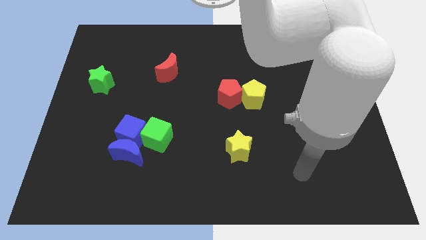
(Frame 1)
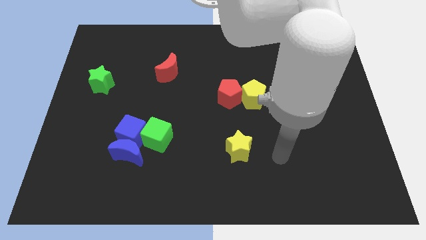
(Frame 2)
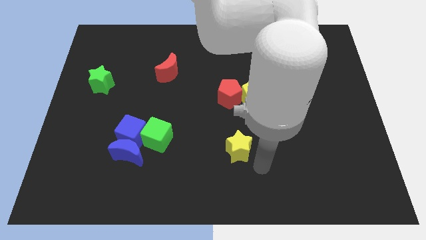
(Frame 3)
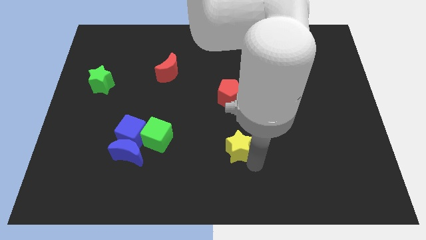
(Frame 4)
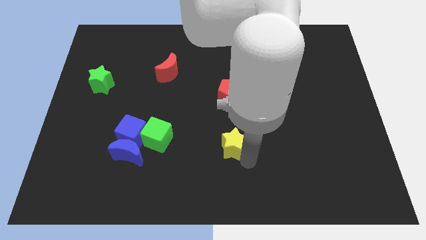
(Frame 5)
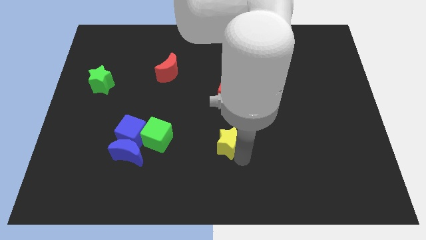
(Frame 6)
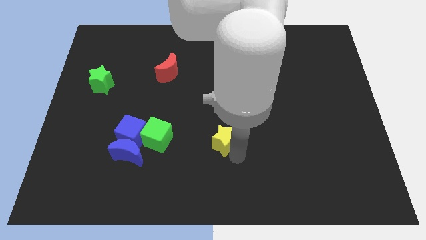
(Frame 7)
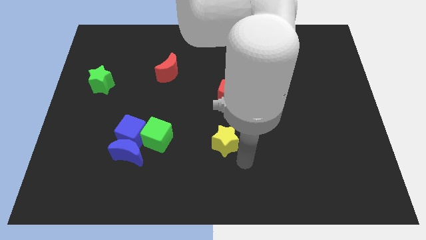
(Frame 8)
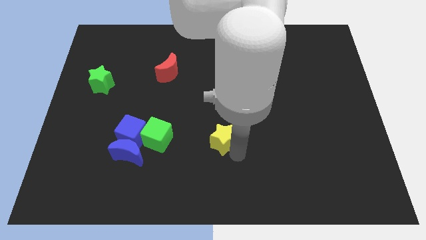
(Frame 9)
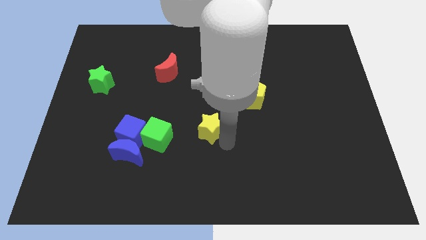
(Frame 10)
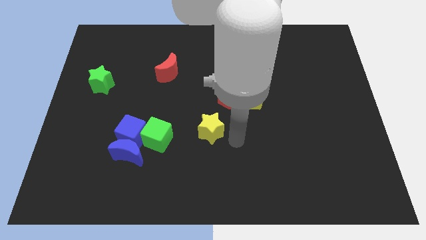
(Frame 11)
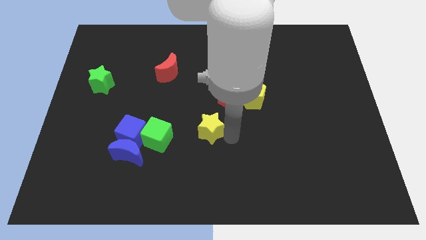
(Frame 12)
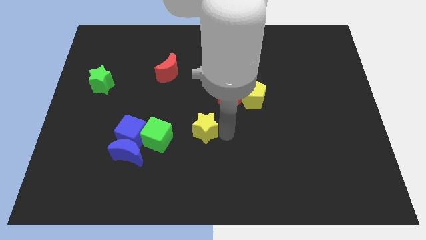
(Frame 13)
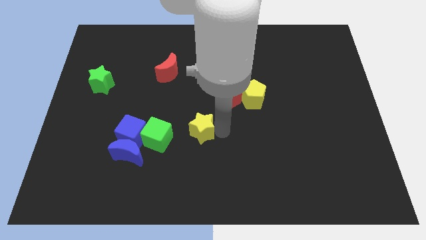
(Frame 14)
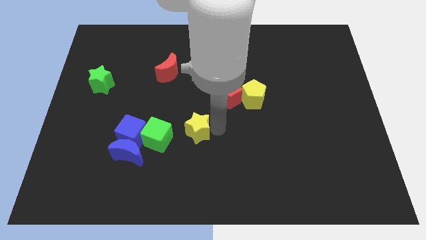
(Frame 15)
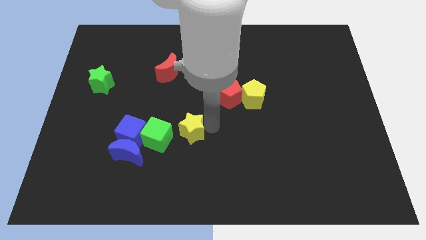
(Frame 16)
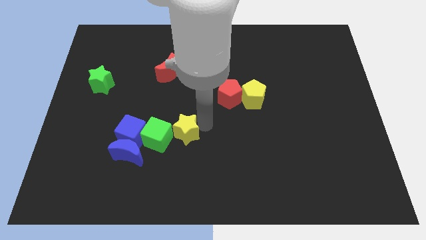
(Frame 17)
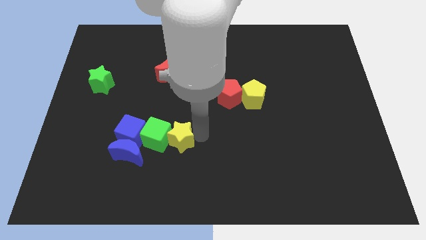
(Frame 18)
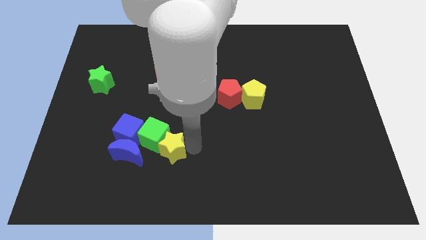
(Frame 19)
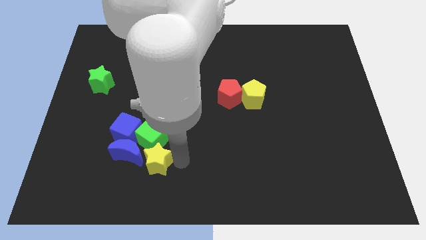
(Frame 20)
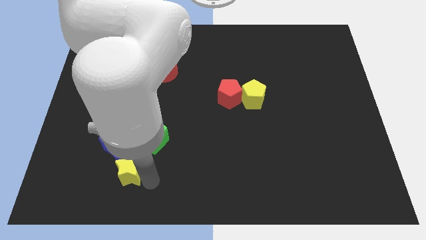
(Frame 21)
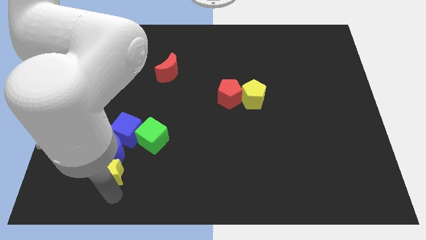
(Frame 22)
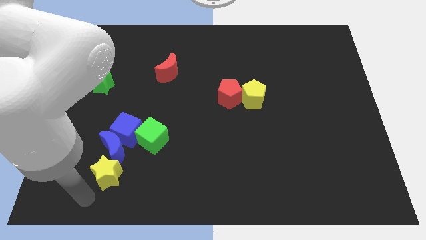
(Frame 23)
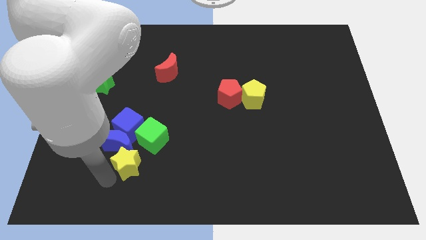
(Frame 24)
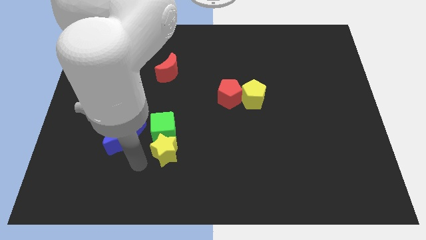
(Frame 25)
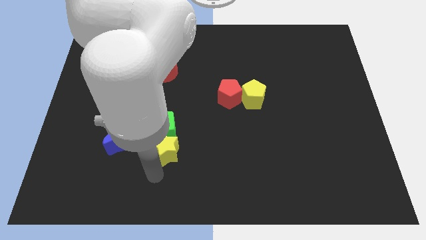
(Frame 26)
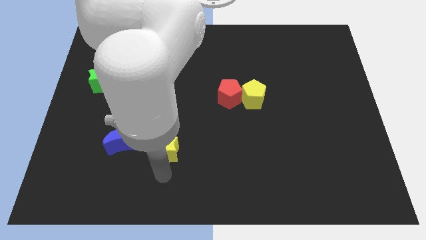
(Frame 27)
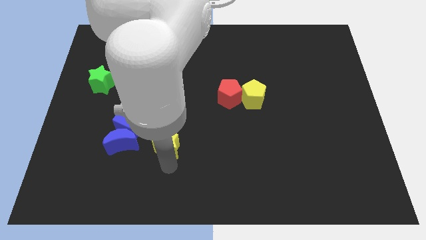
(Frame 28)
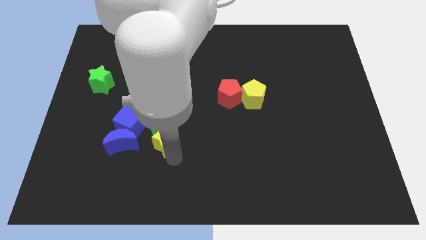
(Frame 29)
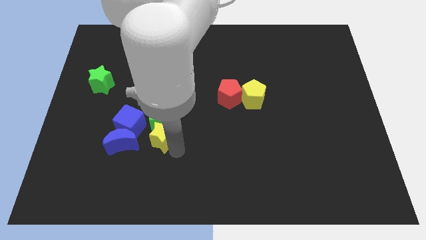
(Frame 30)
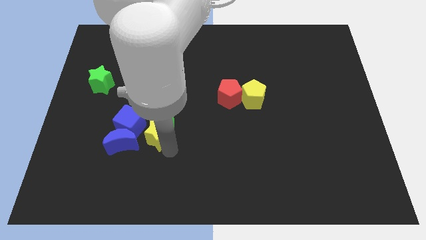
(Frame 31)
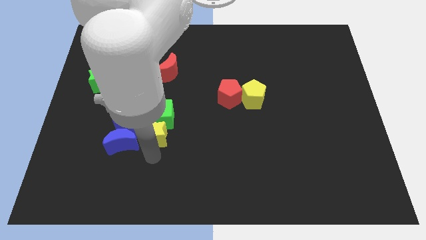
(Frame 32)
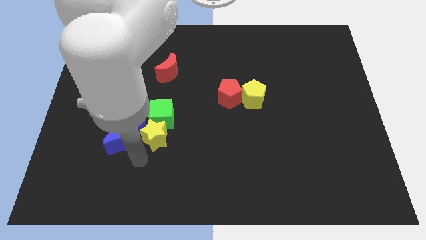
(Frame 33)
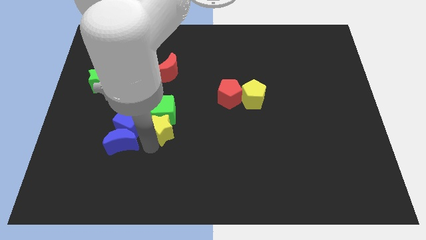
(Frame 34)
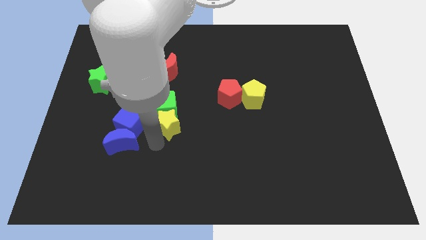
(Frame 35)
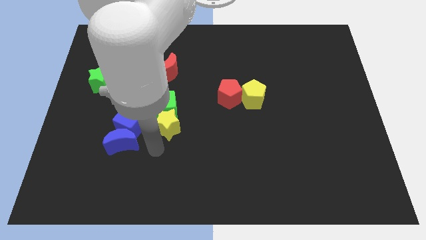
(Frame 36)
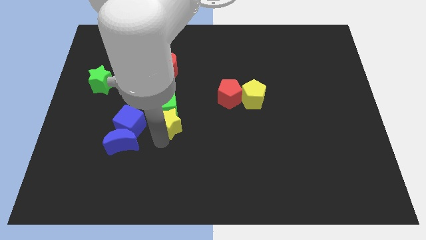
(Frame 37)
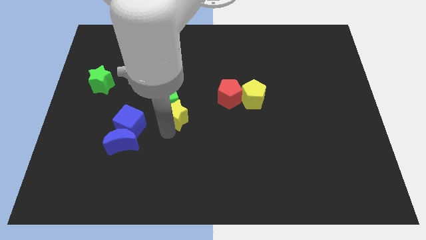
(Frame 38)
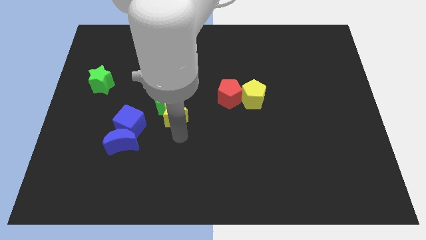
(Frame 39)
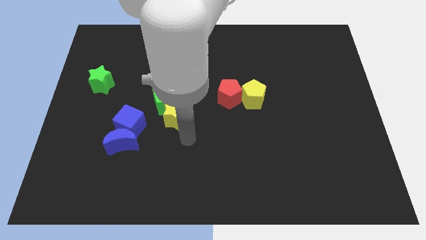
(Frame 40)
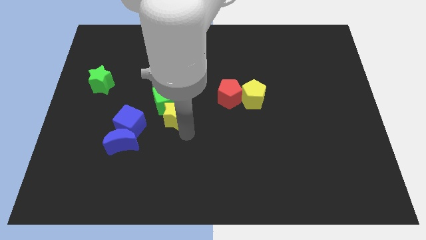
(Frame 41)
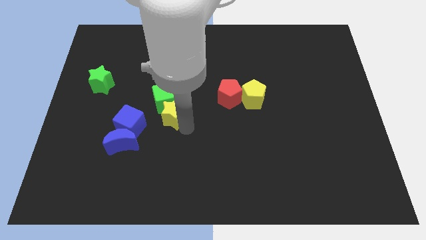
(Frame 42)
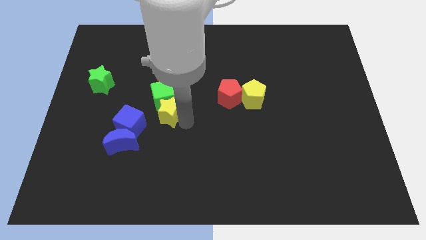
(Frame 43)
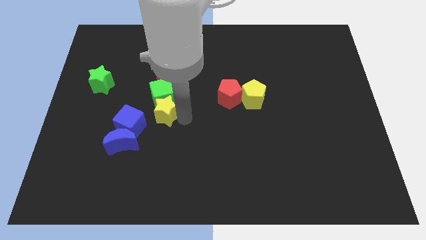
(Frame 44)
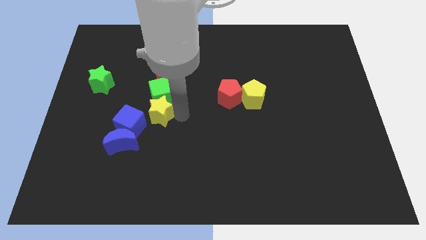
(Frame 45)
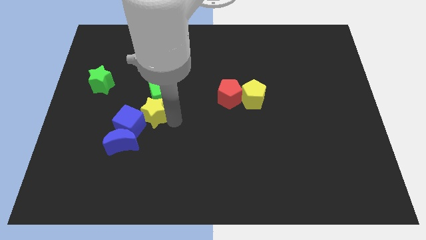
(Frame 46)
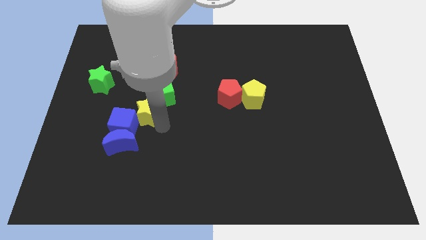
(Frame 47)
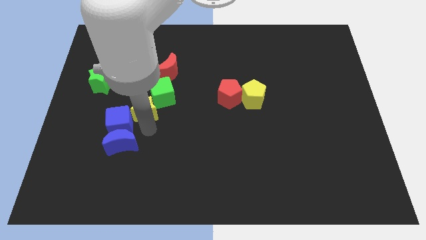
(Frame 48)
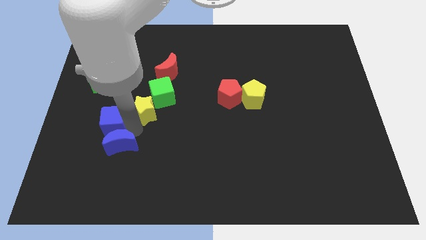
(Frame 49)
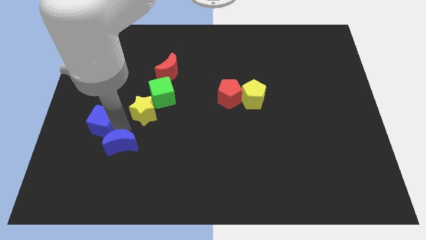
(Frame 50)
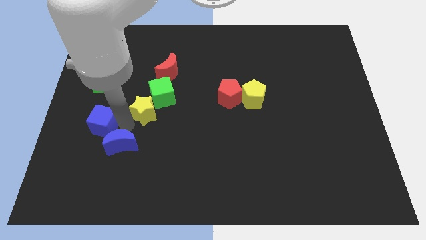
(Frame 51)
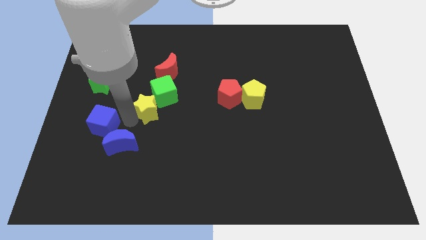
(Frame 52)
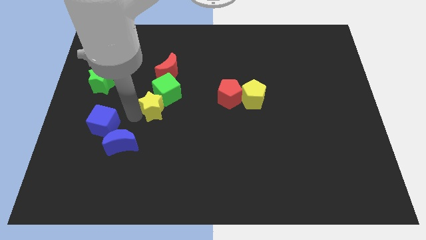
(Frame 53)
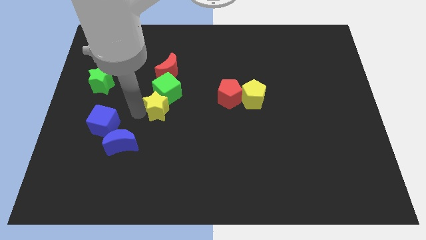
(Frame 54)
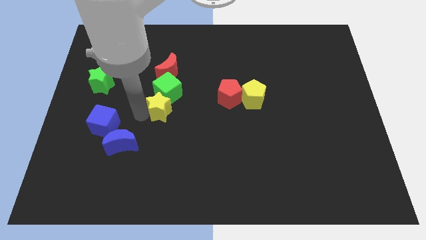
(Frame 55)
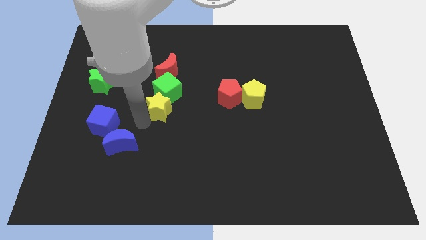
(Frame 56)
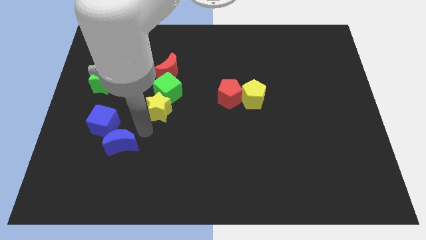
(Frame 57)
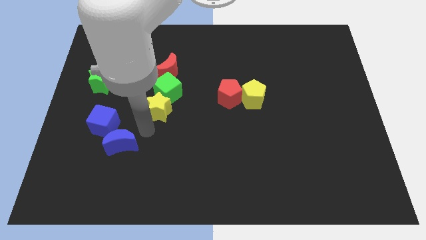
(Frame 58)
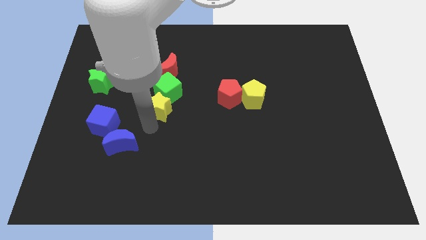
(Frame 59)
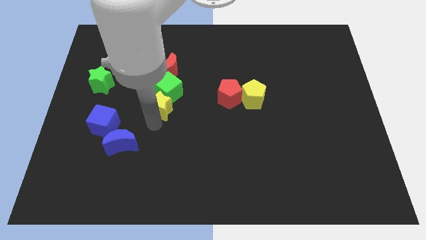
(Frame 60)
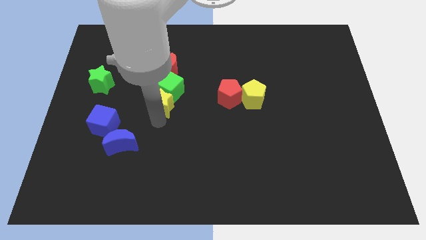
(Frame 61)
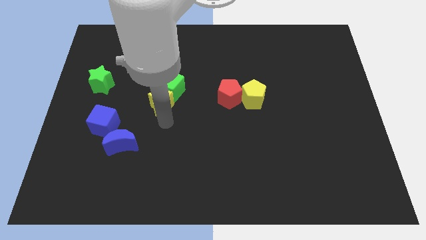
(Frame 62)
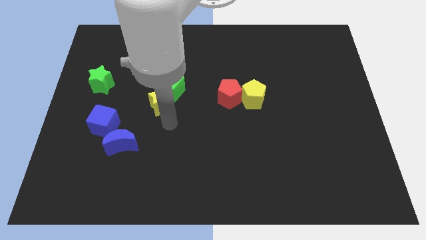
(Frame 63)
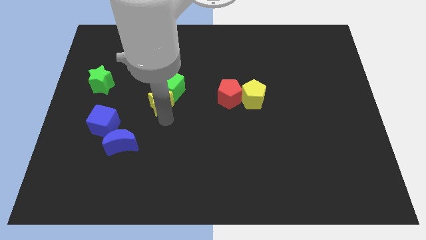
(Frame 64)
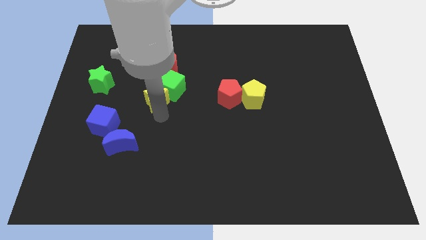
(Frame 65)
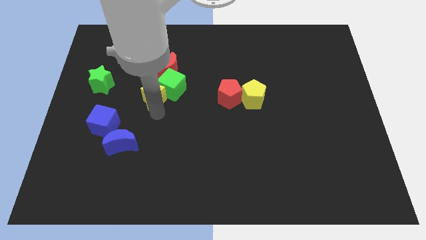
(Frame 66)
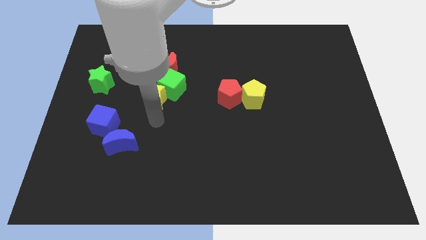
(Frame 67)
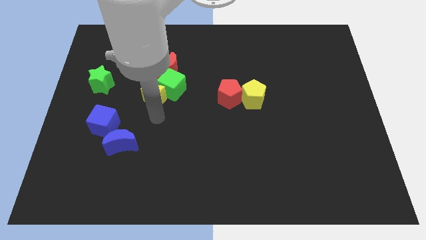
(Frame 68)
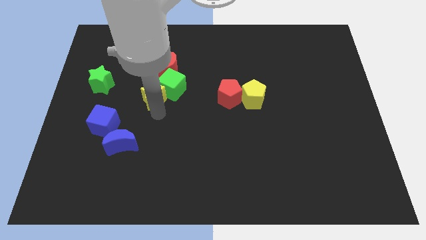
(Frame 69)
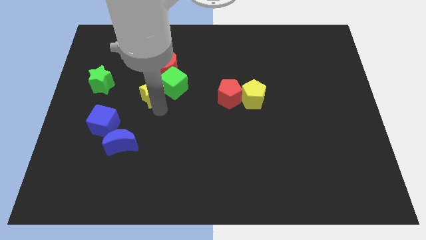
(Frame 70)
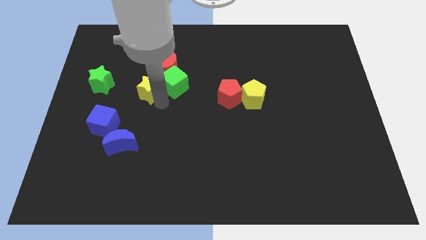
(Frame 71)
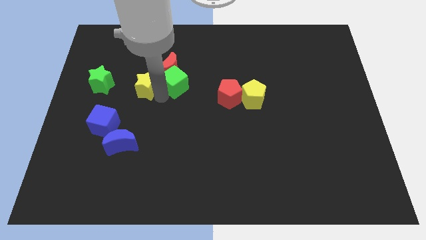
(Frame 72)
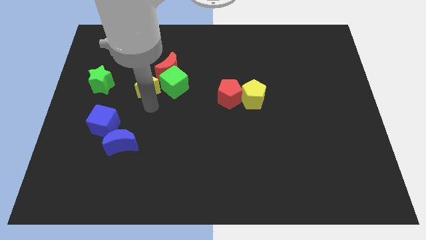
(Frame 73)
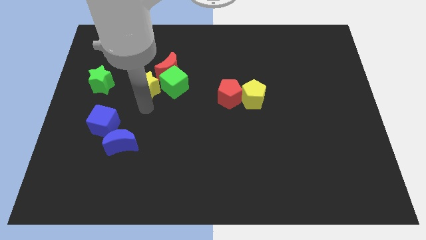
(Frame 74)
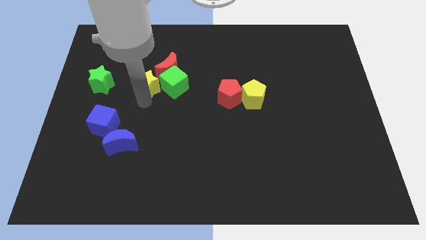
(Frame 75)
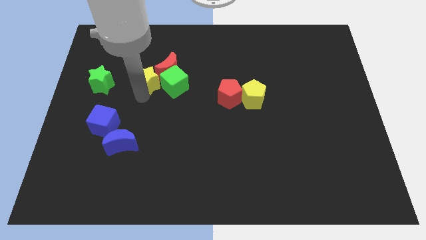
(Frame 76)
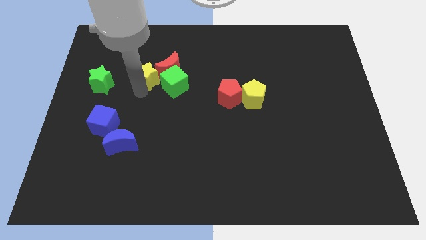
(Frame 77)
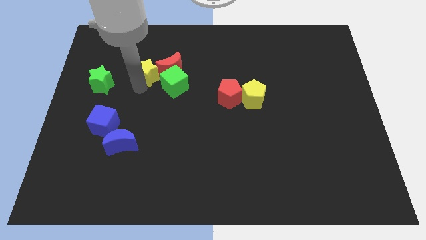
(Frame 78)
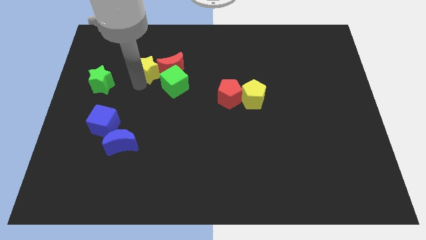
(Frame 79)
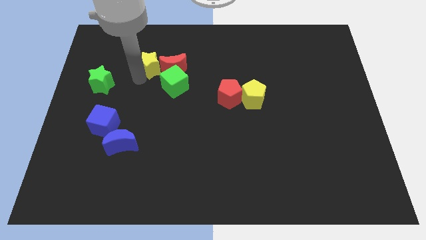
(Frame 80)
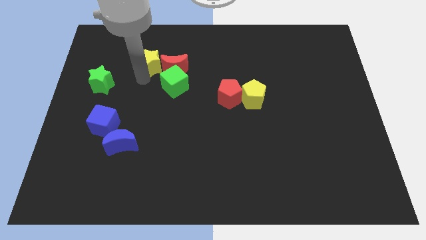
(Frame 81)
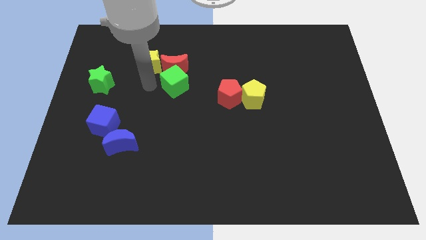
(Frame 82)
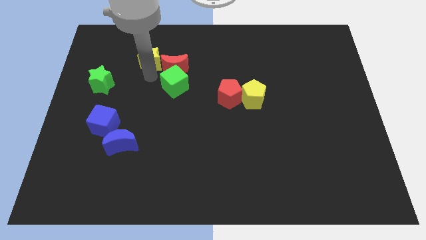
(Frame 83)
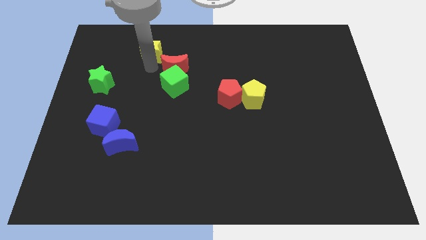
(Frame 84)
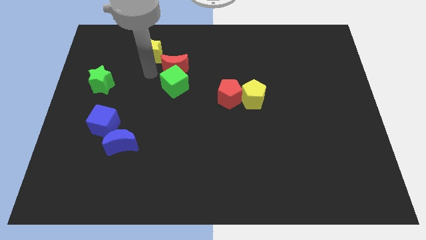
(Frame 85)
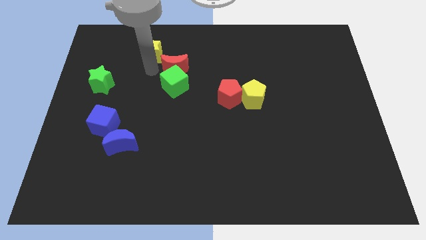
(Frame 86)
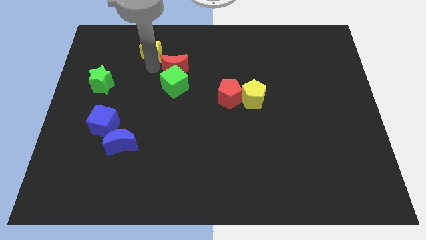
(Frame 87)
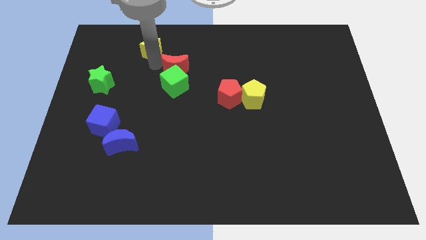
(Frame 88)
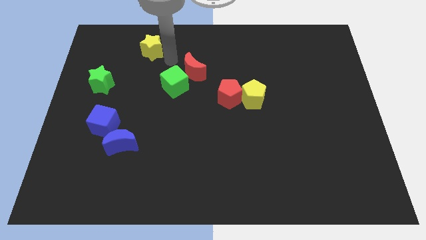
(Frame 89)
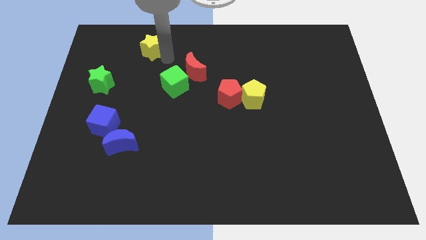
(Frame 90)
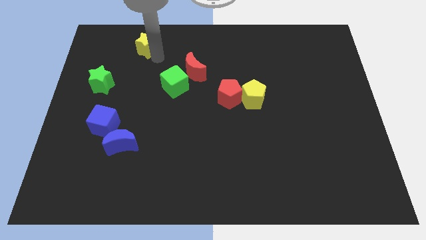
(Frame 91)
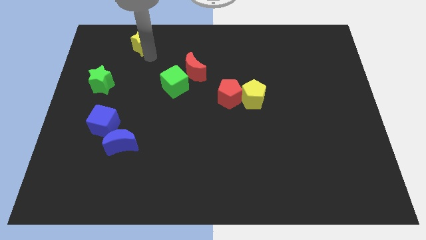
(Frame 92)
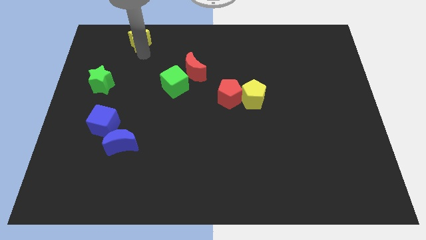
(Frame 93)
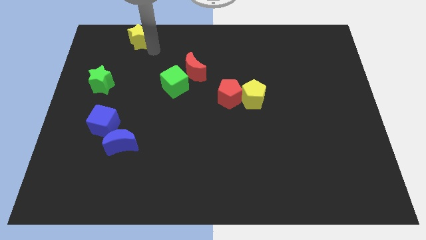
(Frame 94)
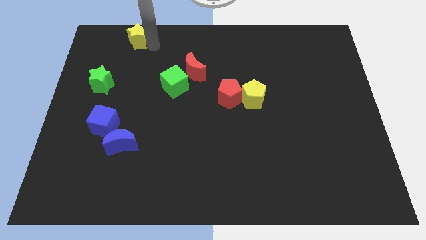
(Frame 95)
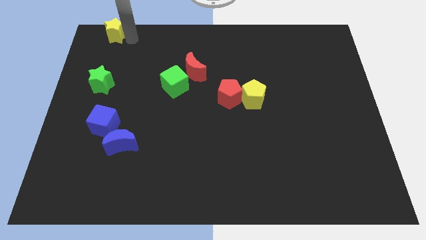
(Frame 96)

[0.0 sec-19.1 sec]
move the yellow star to the top left
